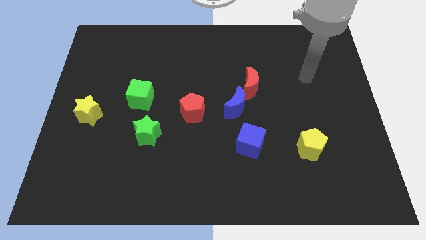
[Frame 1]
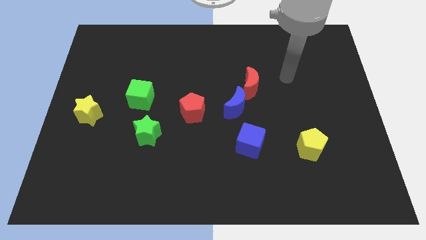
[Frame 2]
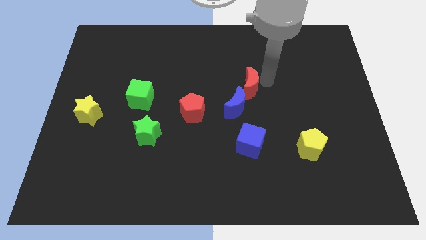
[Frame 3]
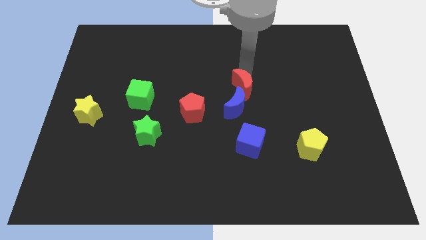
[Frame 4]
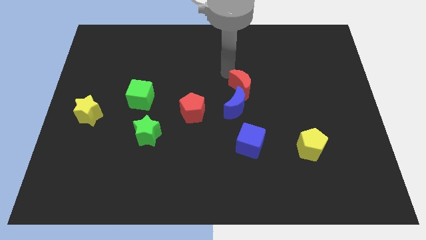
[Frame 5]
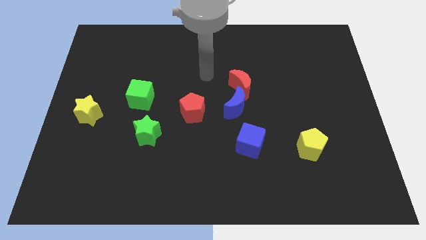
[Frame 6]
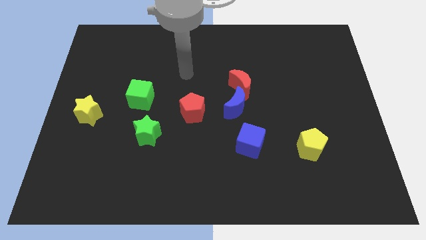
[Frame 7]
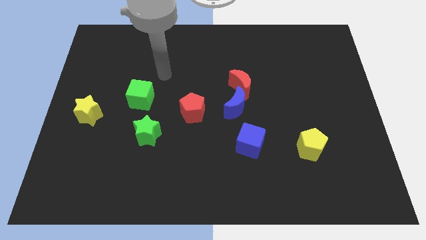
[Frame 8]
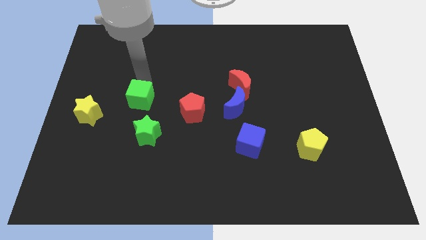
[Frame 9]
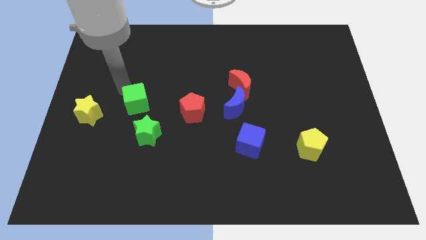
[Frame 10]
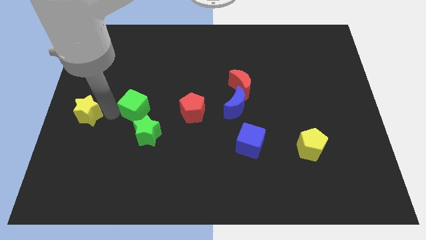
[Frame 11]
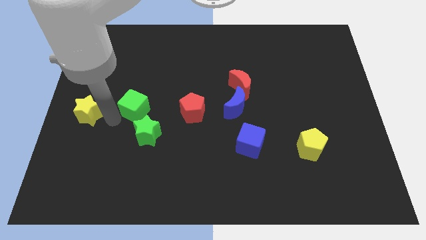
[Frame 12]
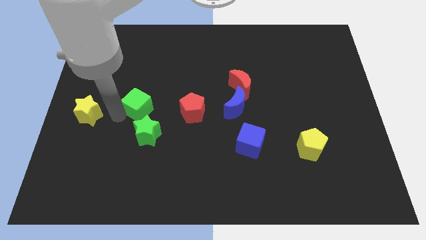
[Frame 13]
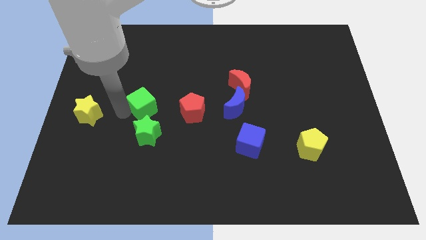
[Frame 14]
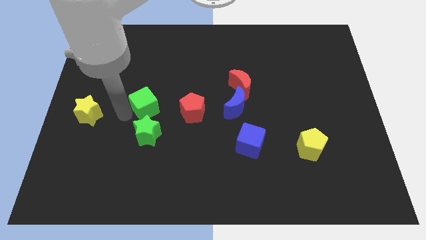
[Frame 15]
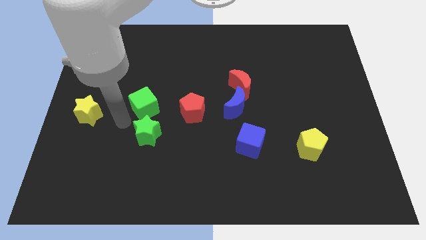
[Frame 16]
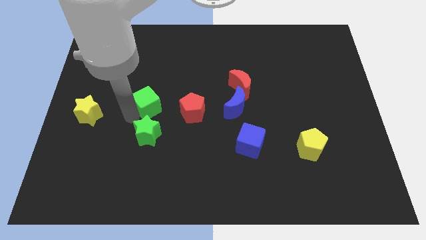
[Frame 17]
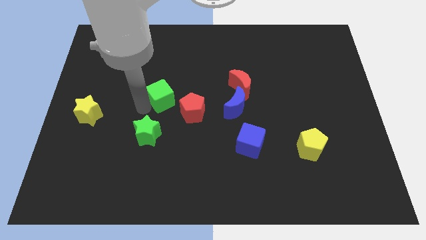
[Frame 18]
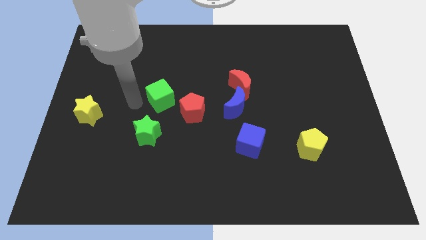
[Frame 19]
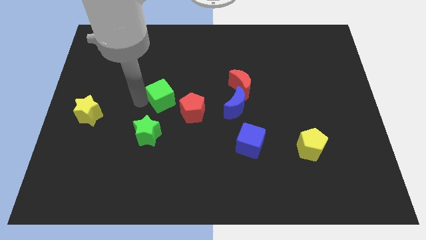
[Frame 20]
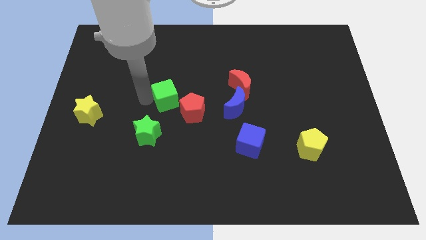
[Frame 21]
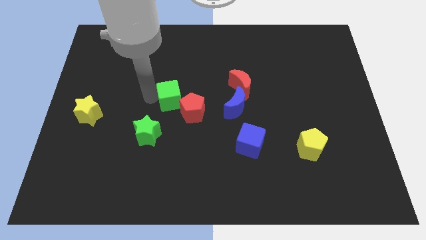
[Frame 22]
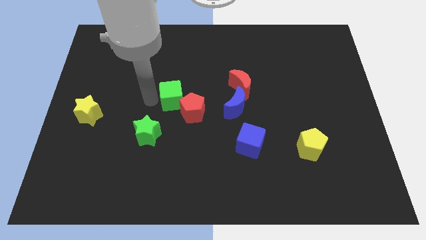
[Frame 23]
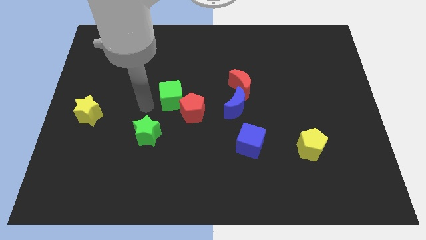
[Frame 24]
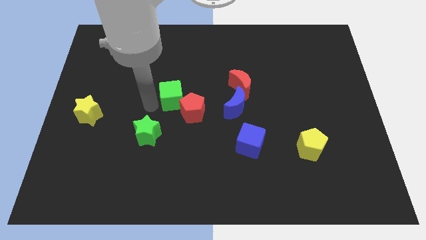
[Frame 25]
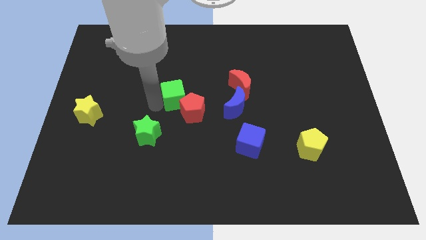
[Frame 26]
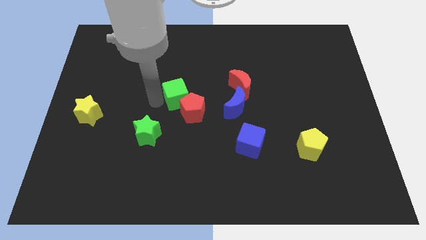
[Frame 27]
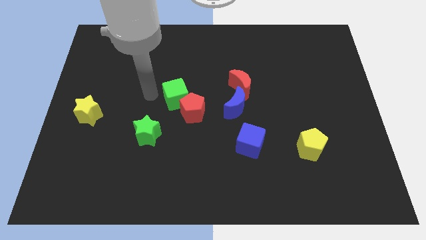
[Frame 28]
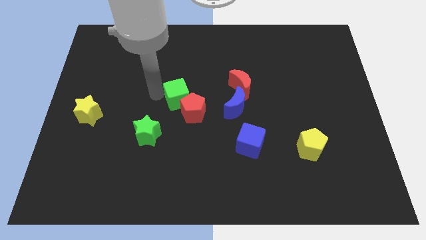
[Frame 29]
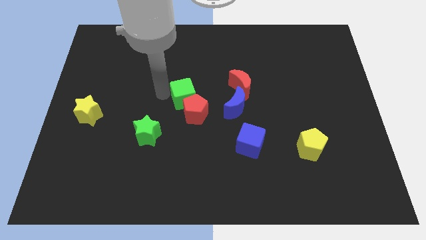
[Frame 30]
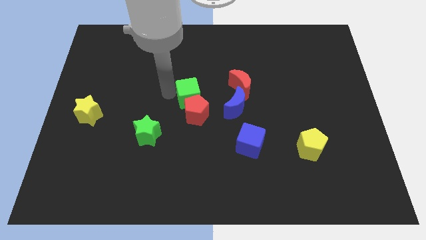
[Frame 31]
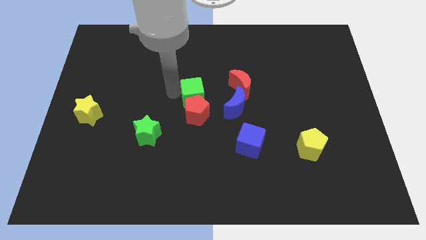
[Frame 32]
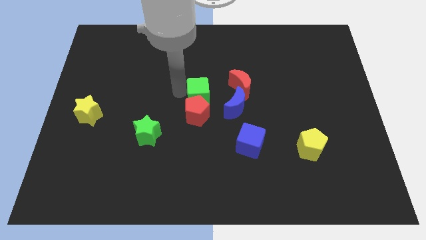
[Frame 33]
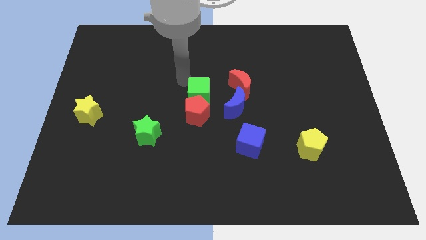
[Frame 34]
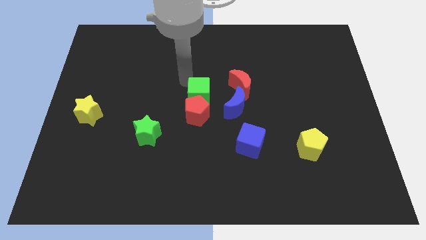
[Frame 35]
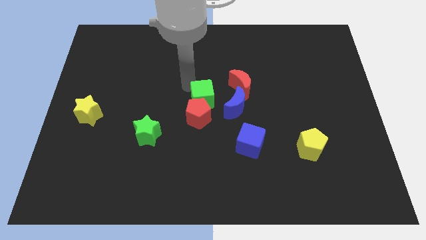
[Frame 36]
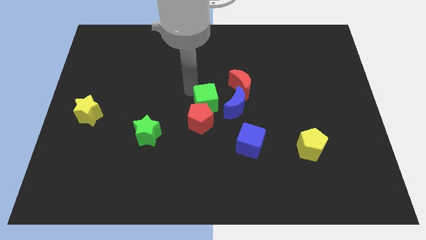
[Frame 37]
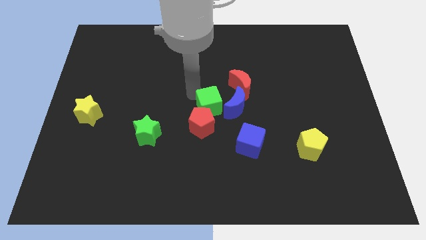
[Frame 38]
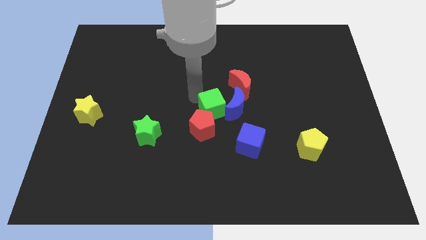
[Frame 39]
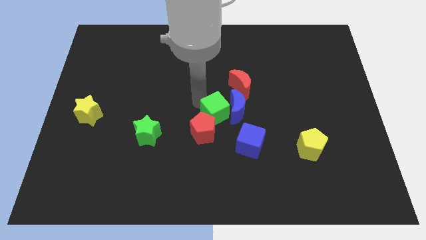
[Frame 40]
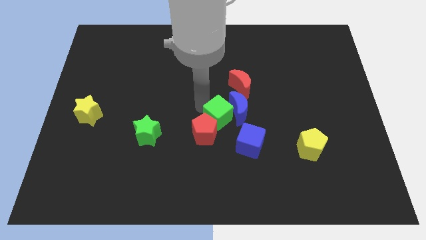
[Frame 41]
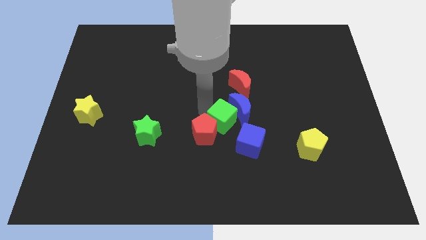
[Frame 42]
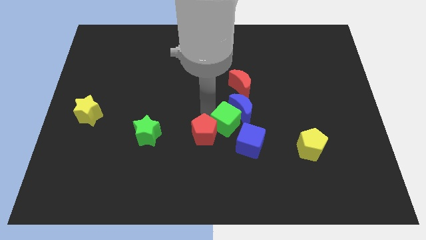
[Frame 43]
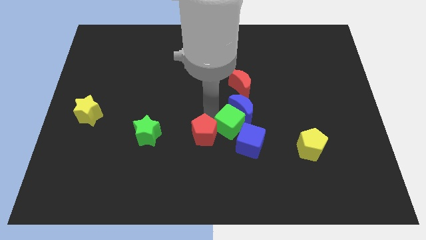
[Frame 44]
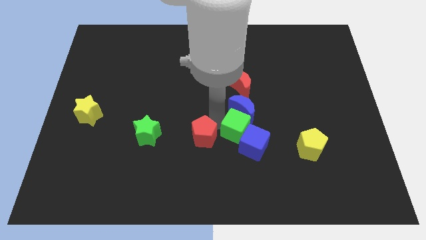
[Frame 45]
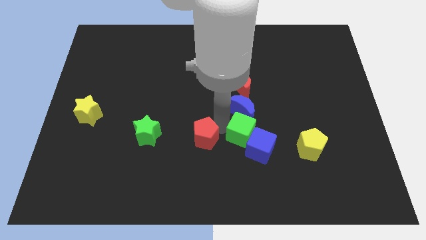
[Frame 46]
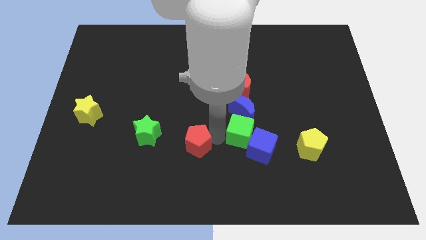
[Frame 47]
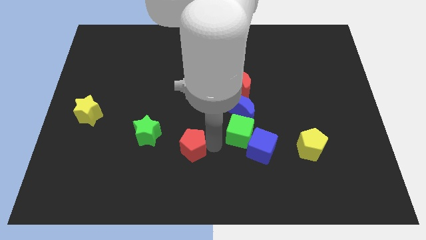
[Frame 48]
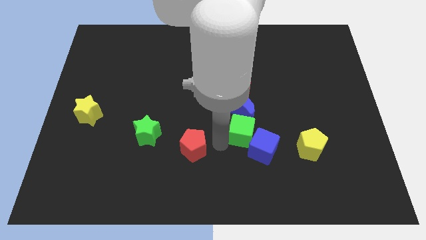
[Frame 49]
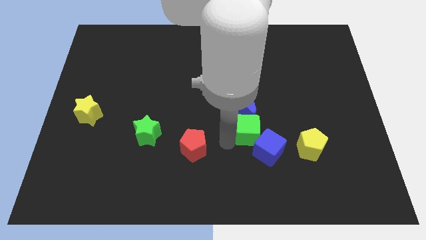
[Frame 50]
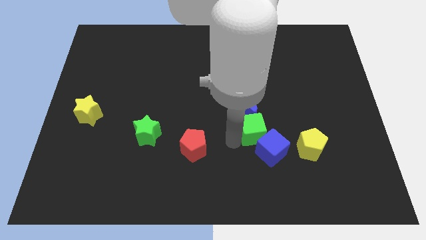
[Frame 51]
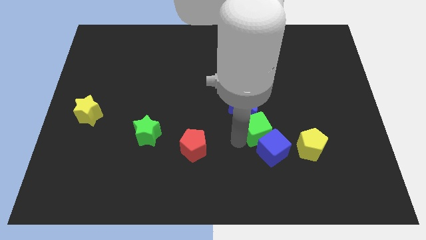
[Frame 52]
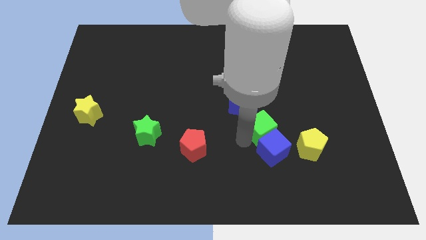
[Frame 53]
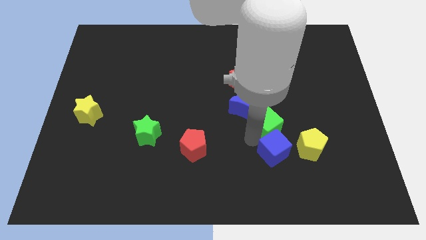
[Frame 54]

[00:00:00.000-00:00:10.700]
put the green cube just right of the blue moon

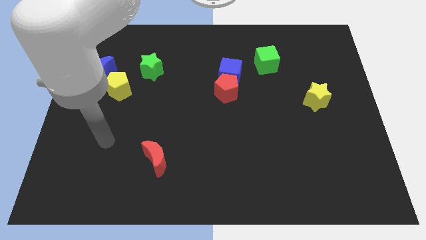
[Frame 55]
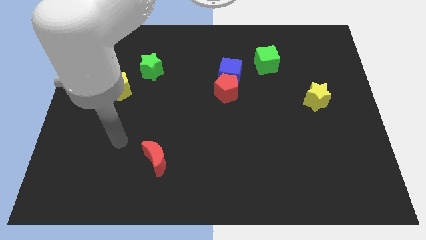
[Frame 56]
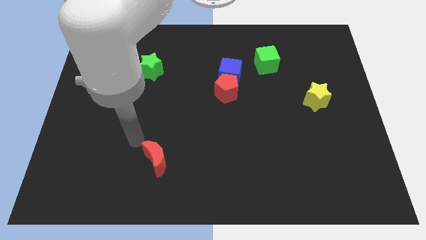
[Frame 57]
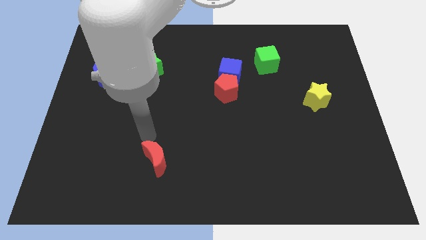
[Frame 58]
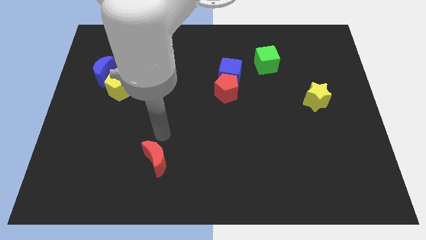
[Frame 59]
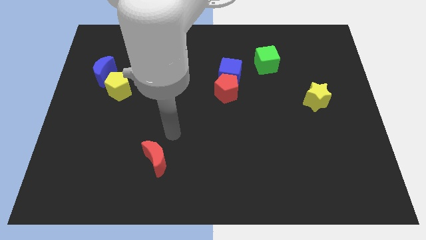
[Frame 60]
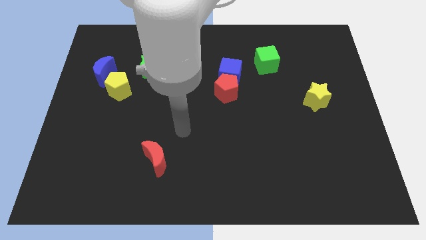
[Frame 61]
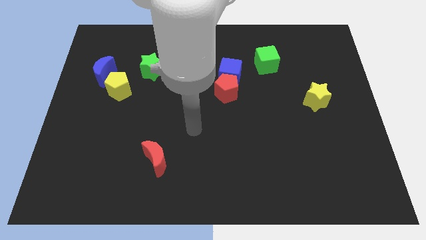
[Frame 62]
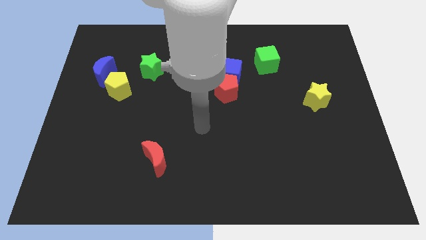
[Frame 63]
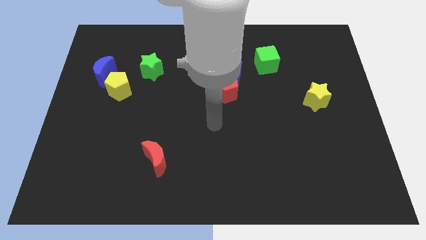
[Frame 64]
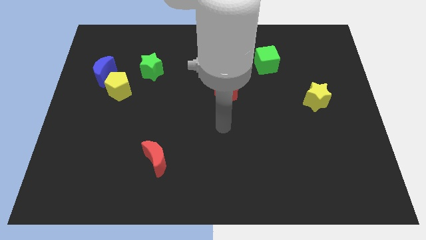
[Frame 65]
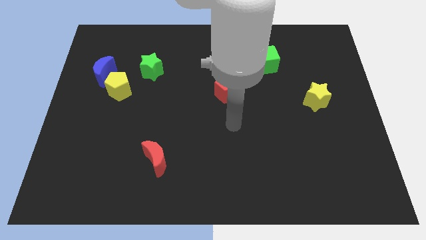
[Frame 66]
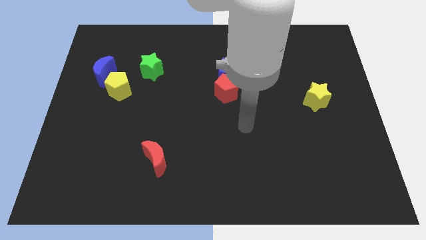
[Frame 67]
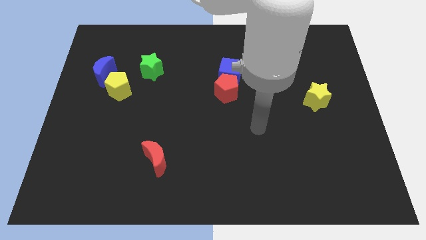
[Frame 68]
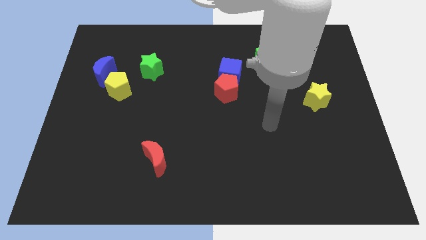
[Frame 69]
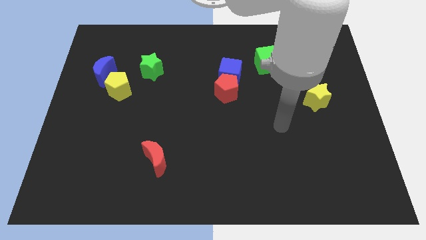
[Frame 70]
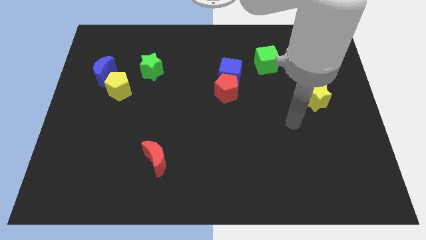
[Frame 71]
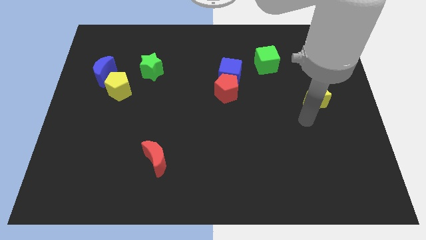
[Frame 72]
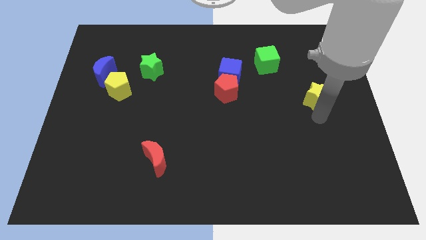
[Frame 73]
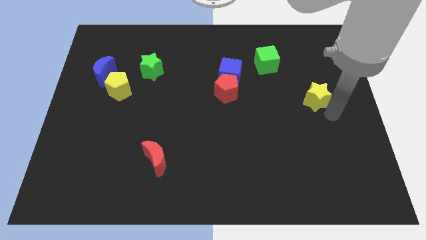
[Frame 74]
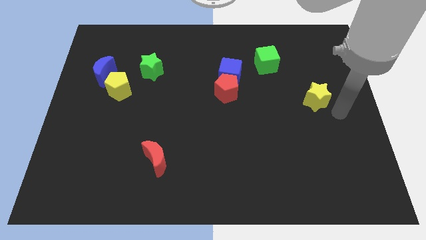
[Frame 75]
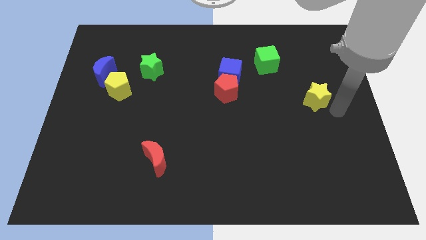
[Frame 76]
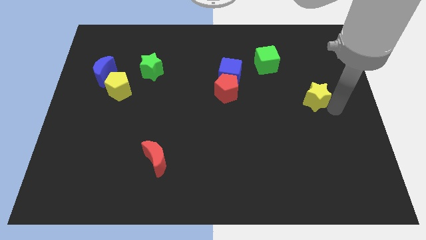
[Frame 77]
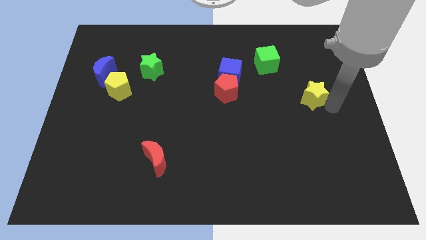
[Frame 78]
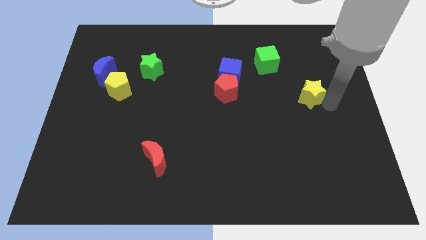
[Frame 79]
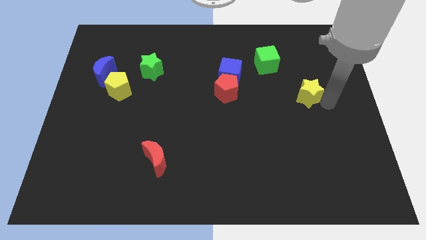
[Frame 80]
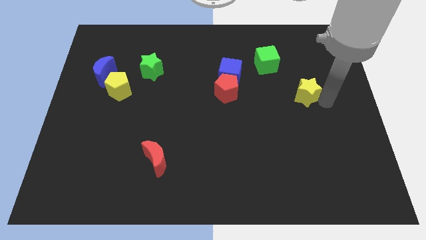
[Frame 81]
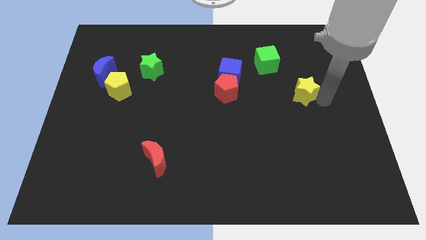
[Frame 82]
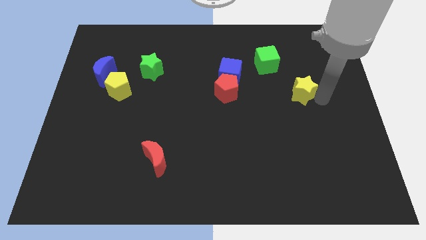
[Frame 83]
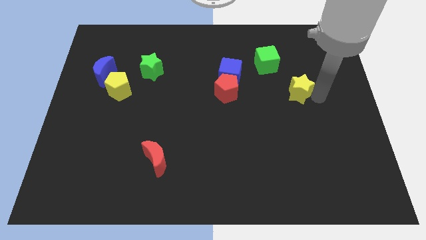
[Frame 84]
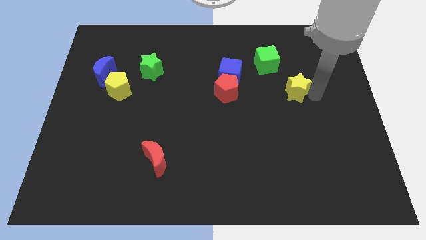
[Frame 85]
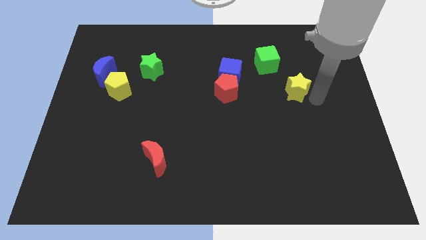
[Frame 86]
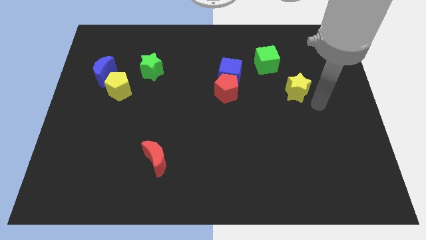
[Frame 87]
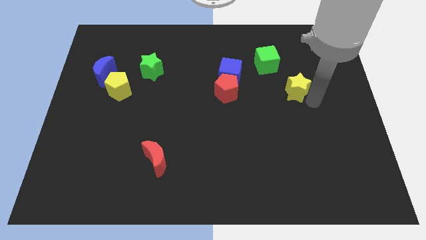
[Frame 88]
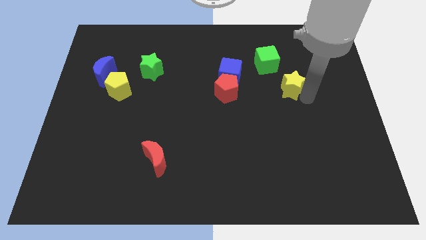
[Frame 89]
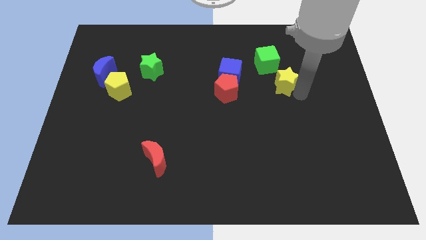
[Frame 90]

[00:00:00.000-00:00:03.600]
push the yellow star to the right of the blue cube
